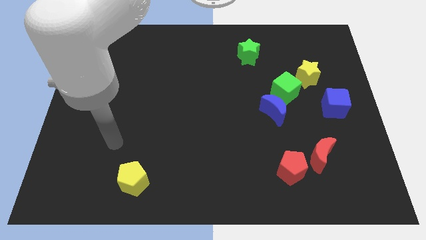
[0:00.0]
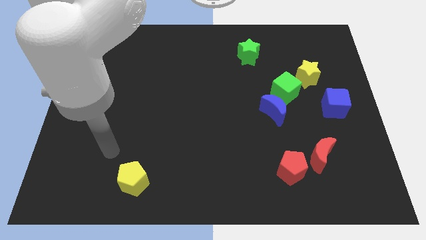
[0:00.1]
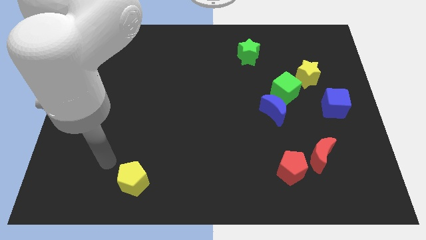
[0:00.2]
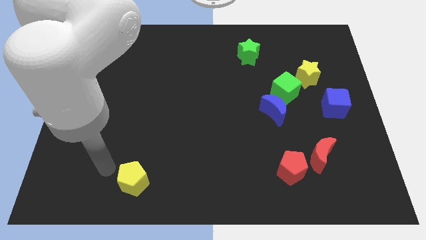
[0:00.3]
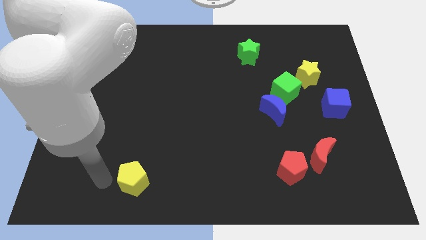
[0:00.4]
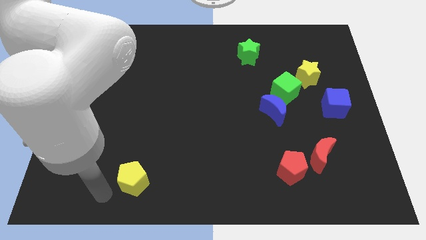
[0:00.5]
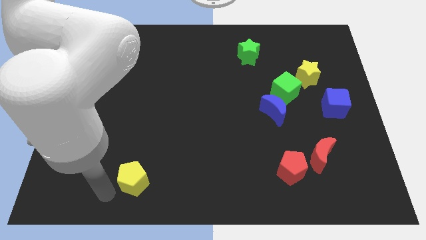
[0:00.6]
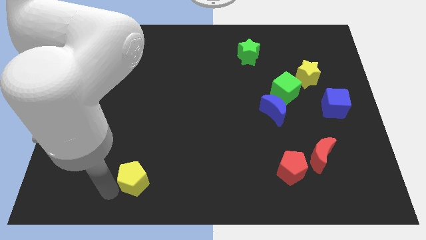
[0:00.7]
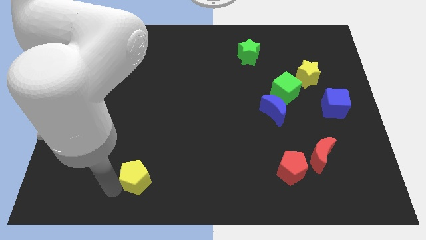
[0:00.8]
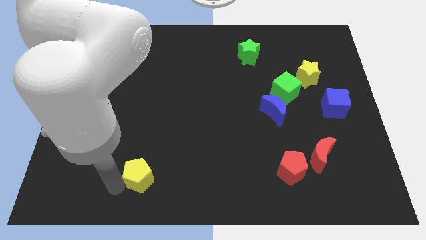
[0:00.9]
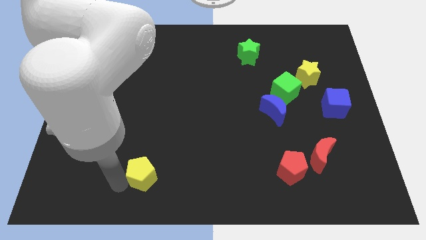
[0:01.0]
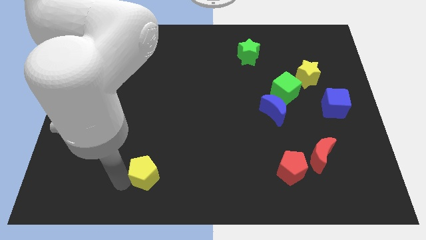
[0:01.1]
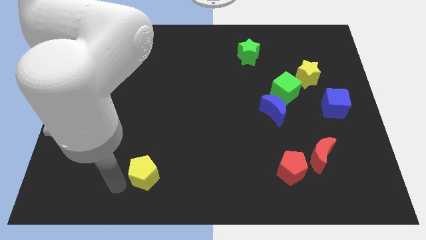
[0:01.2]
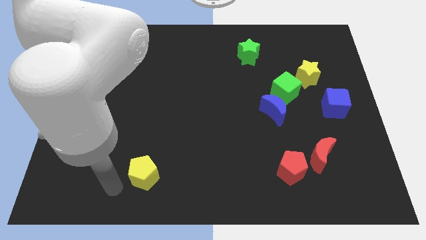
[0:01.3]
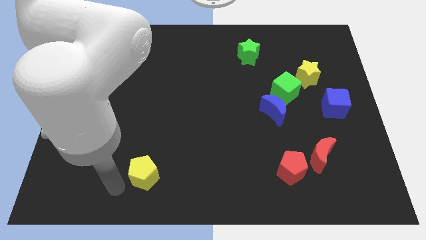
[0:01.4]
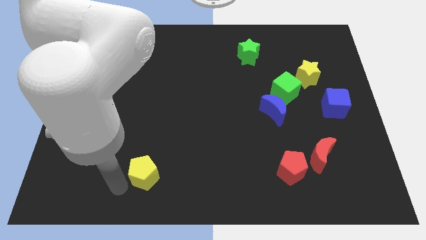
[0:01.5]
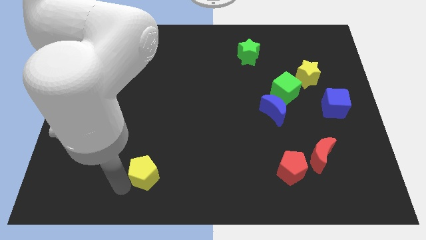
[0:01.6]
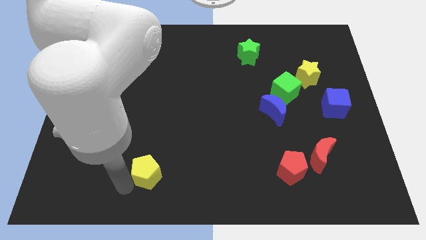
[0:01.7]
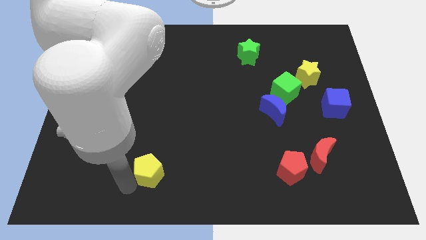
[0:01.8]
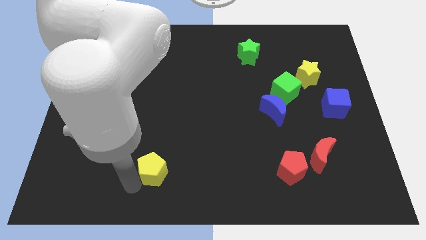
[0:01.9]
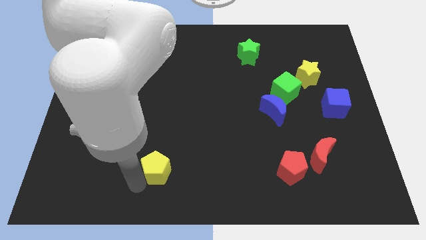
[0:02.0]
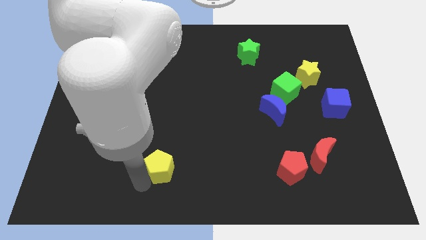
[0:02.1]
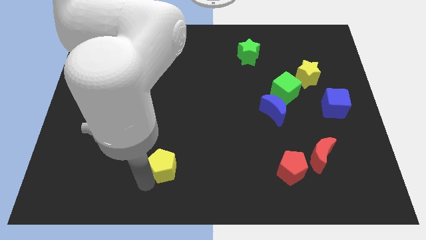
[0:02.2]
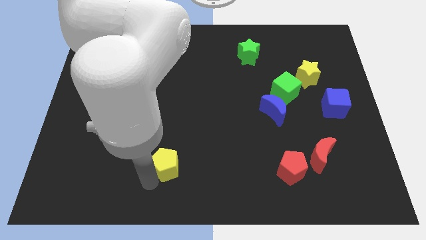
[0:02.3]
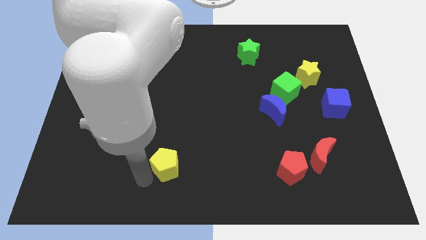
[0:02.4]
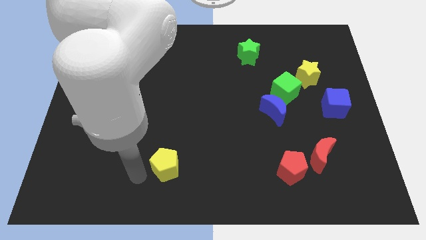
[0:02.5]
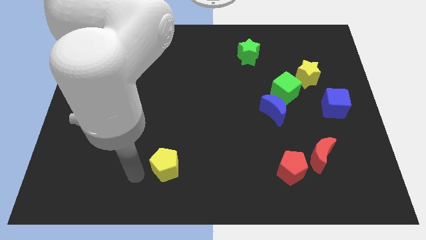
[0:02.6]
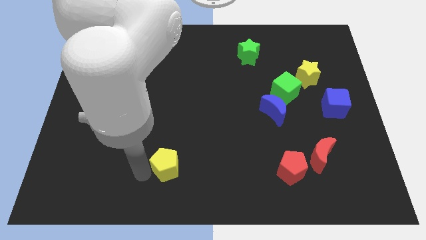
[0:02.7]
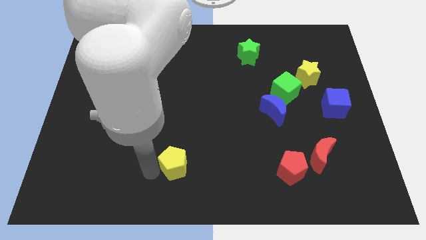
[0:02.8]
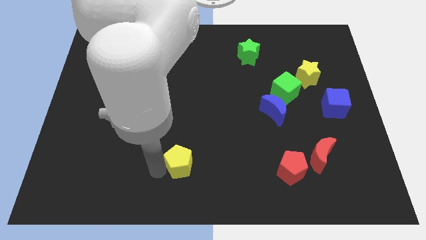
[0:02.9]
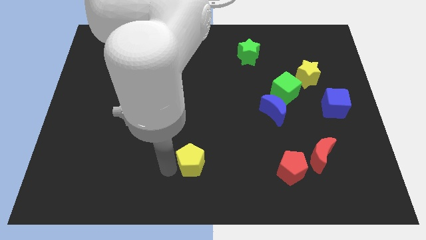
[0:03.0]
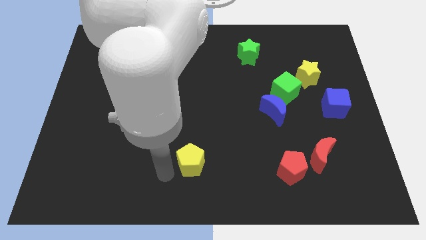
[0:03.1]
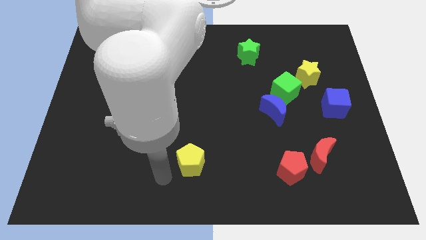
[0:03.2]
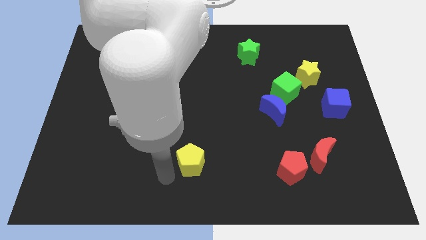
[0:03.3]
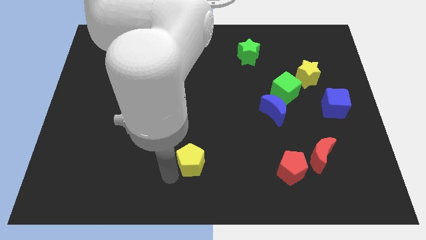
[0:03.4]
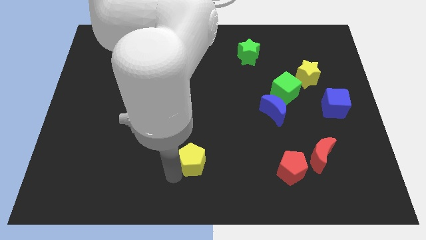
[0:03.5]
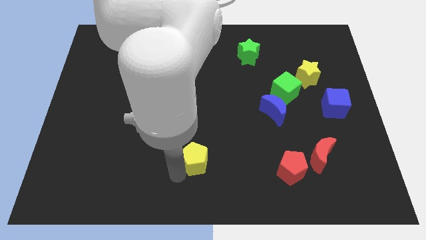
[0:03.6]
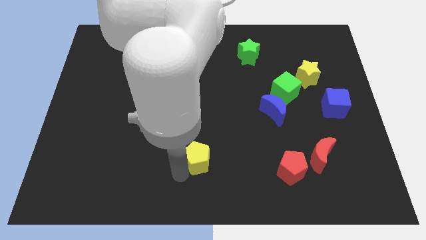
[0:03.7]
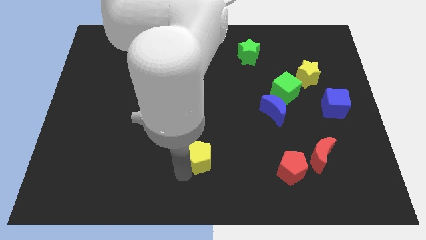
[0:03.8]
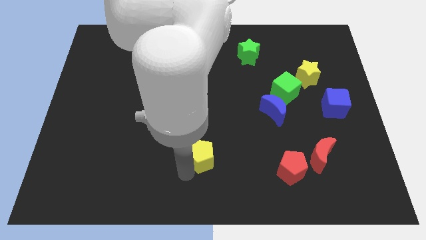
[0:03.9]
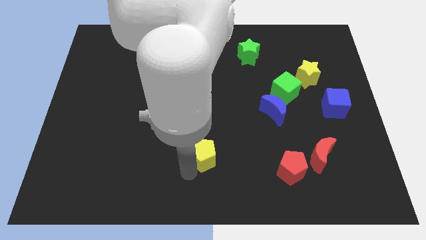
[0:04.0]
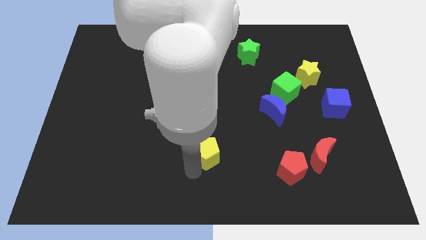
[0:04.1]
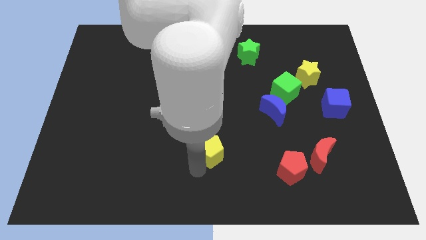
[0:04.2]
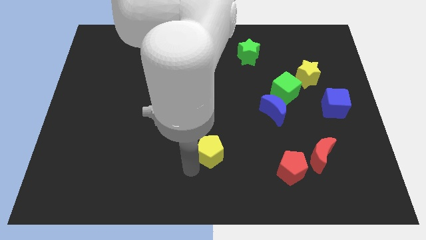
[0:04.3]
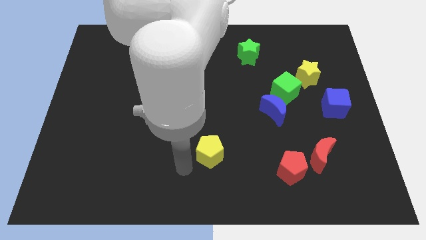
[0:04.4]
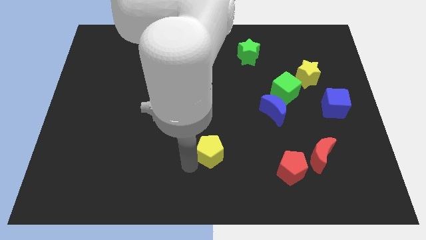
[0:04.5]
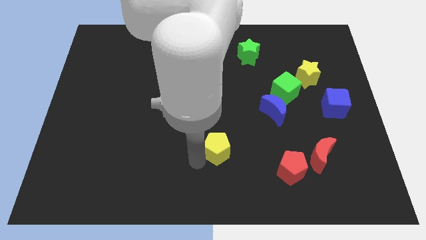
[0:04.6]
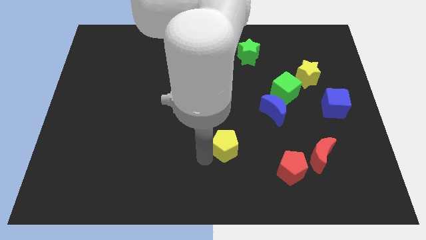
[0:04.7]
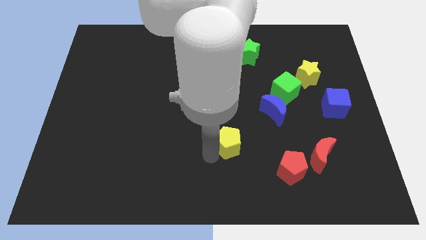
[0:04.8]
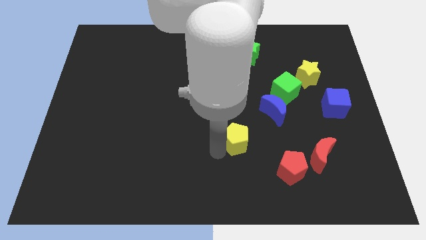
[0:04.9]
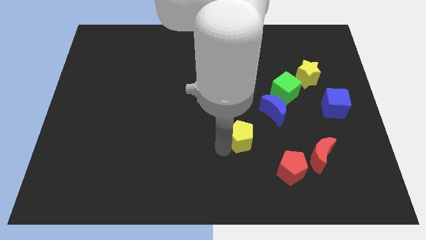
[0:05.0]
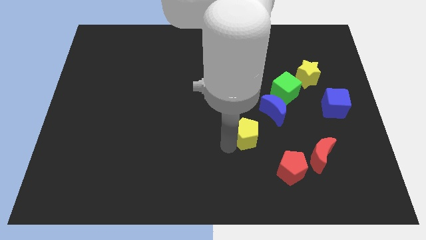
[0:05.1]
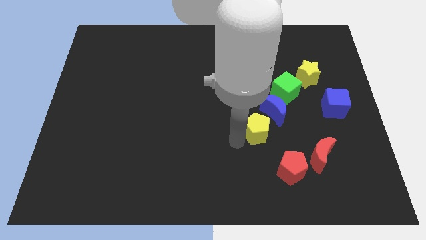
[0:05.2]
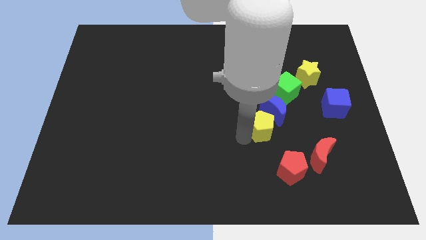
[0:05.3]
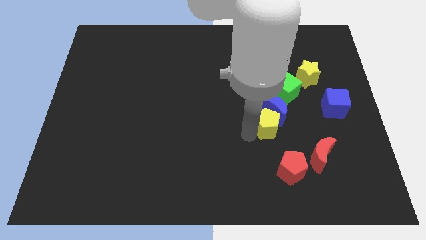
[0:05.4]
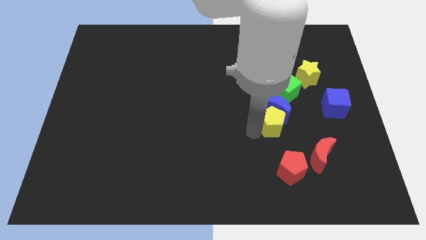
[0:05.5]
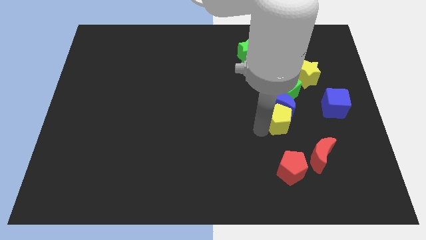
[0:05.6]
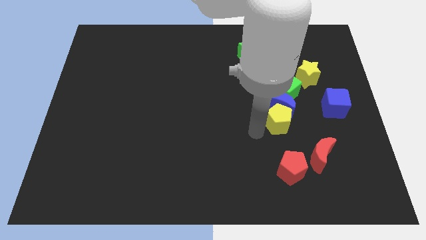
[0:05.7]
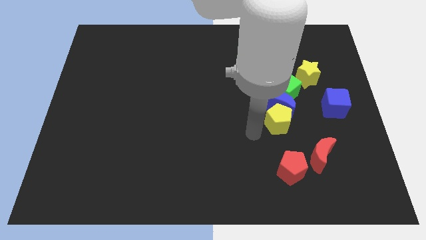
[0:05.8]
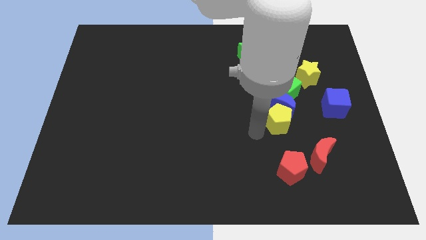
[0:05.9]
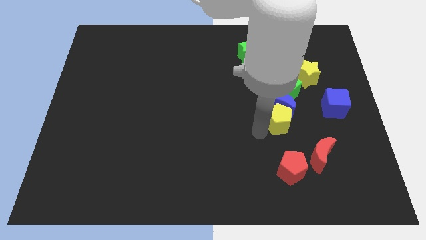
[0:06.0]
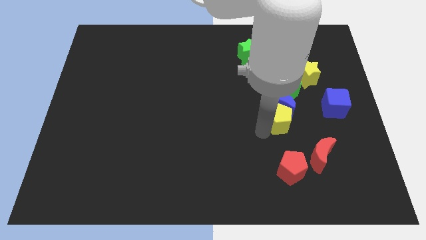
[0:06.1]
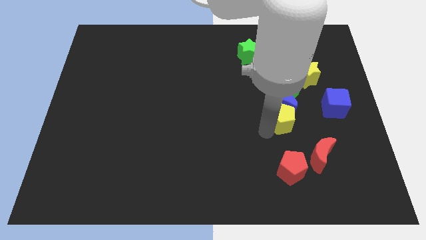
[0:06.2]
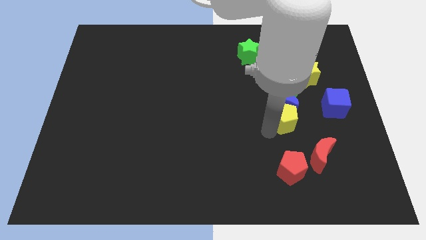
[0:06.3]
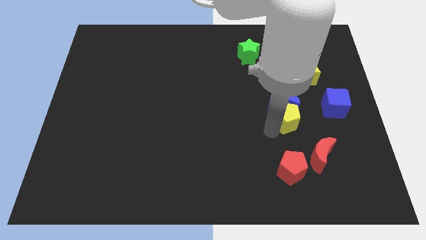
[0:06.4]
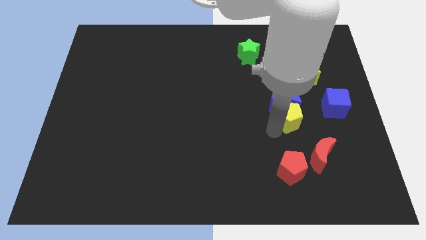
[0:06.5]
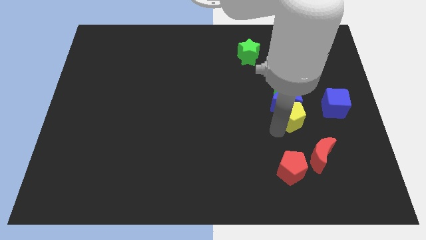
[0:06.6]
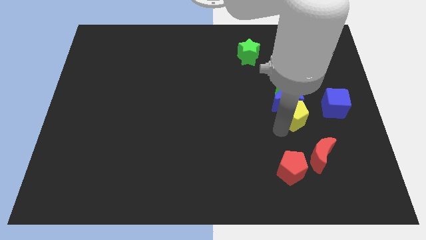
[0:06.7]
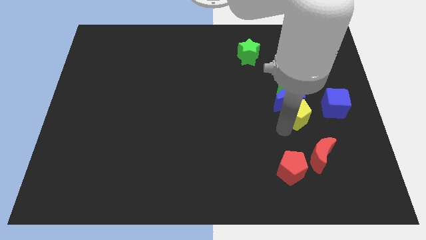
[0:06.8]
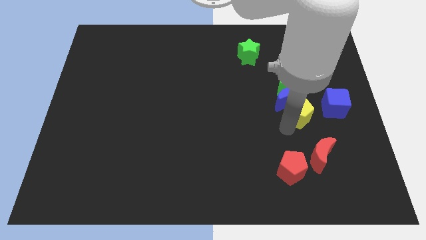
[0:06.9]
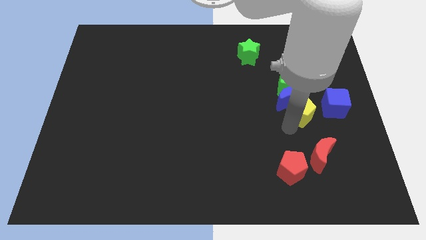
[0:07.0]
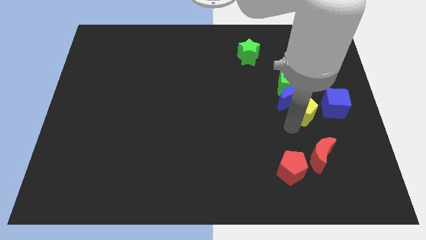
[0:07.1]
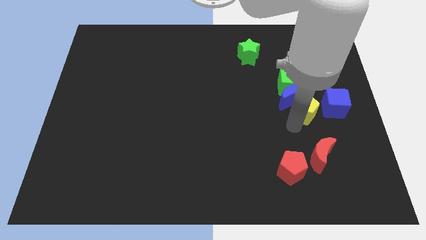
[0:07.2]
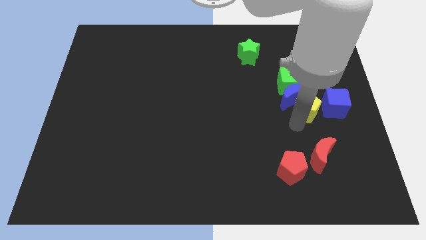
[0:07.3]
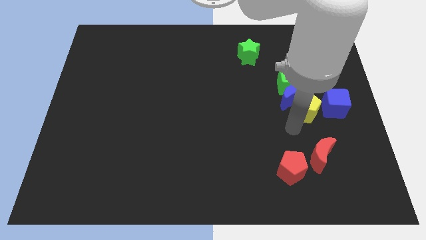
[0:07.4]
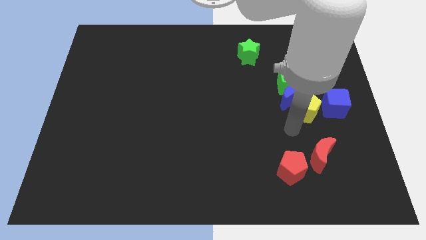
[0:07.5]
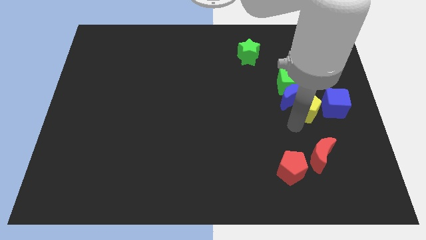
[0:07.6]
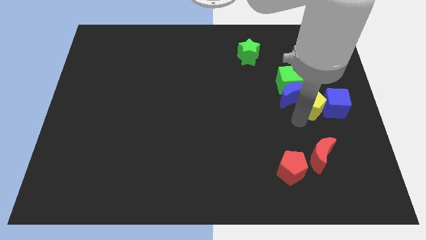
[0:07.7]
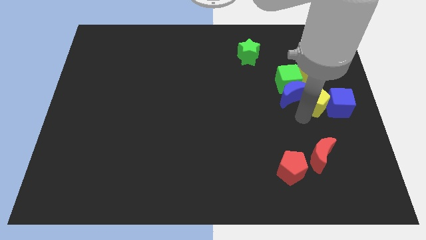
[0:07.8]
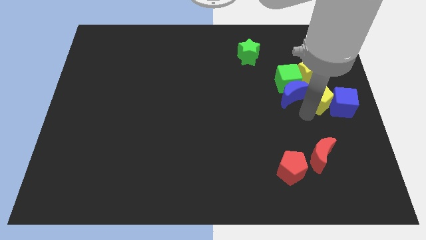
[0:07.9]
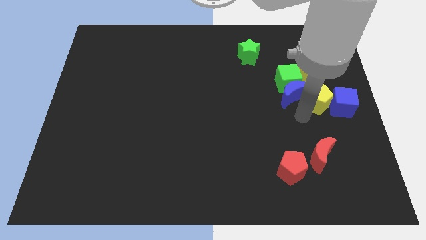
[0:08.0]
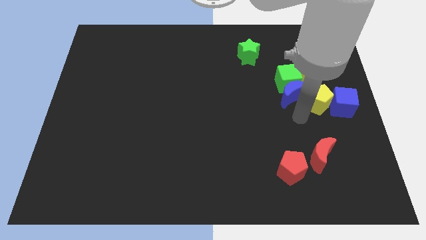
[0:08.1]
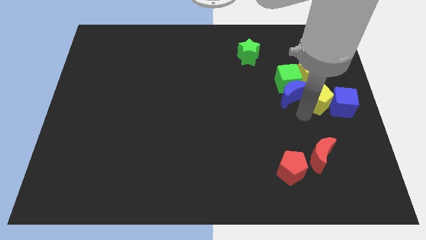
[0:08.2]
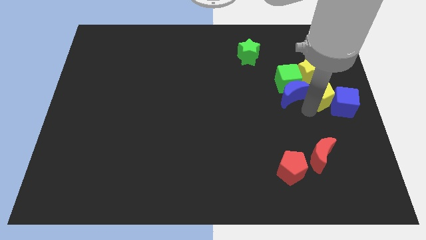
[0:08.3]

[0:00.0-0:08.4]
put the yellow pentagon to the bottom right side of the yellow star
